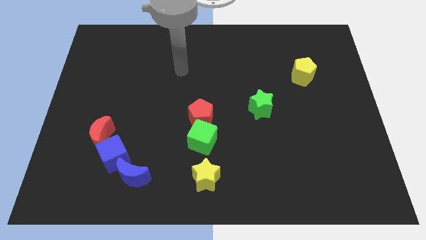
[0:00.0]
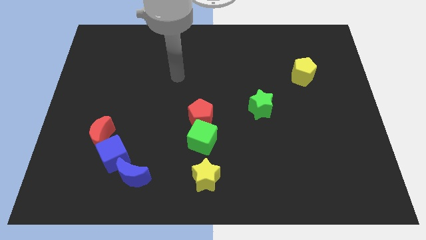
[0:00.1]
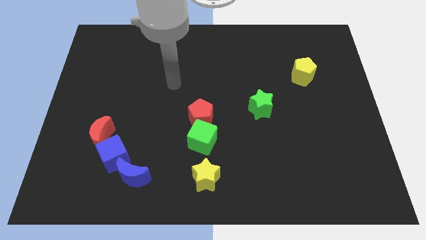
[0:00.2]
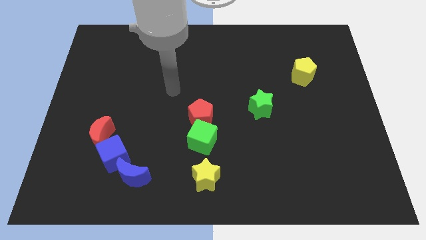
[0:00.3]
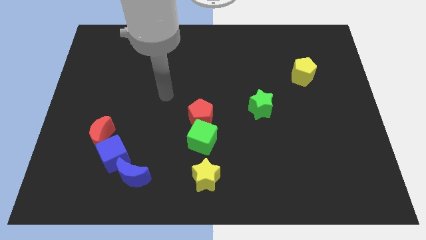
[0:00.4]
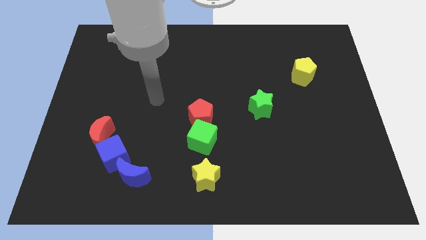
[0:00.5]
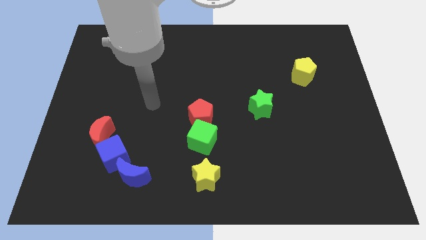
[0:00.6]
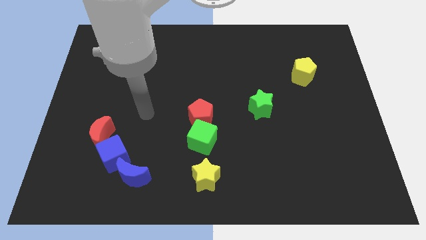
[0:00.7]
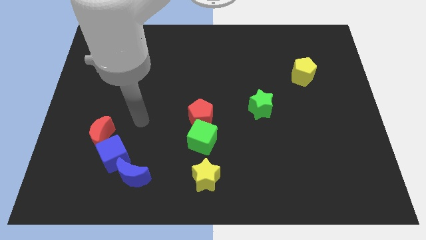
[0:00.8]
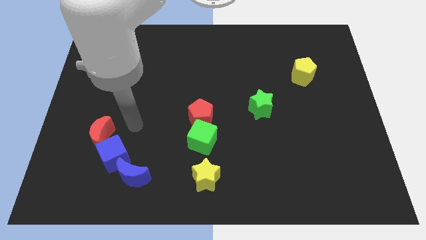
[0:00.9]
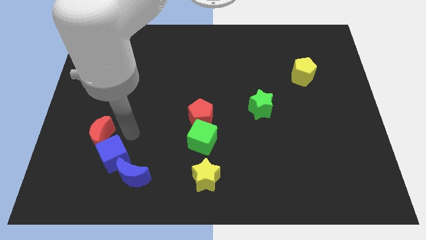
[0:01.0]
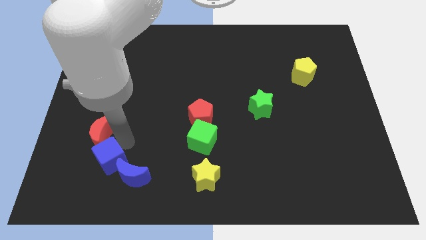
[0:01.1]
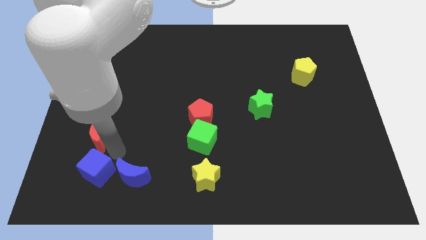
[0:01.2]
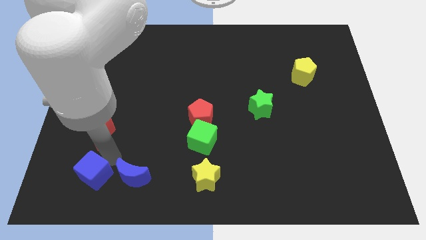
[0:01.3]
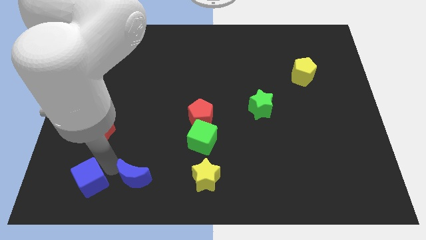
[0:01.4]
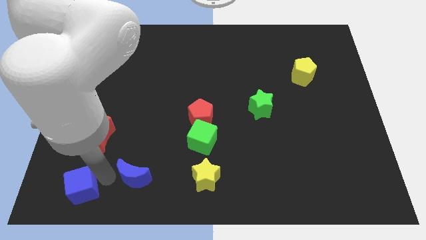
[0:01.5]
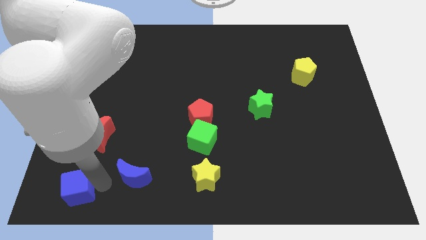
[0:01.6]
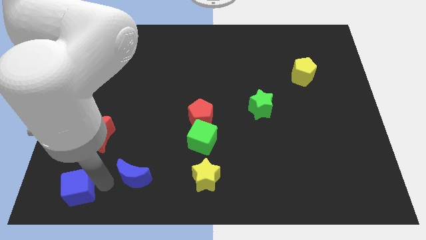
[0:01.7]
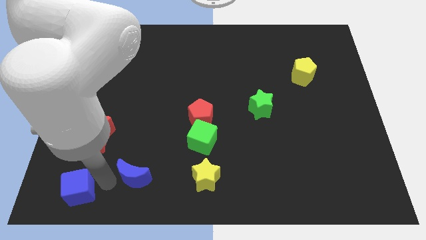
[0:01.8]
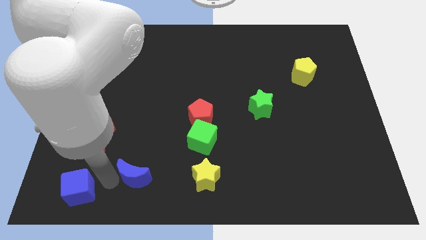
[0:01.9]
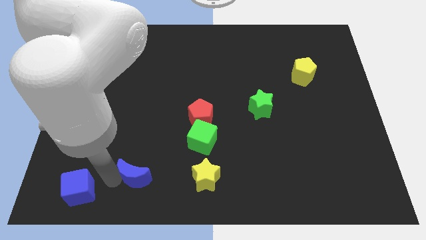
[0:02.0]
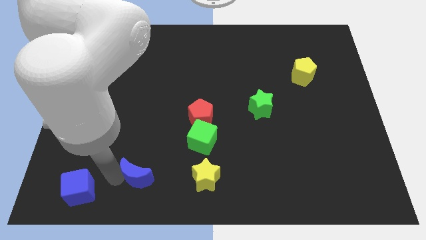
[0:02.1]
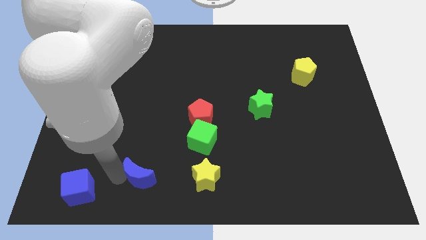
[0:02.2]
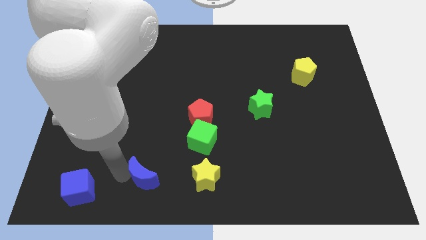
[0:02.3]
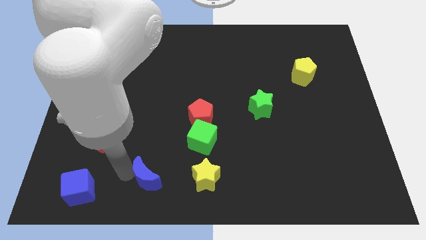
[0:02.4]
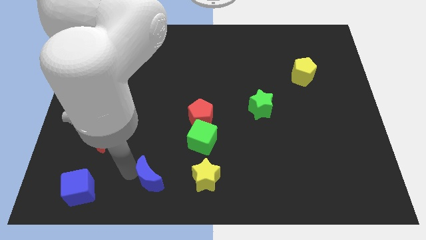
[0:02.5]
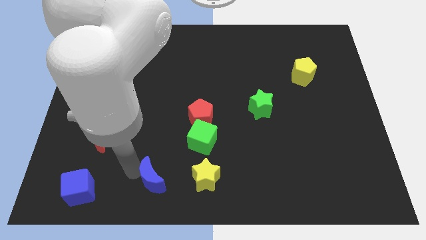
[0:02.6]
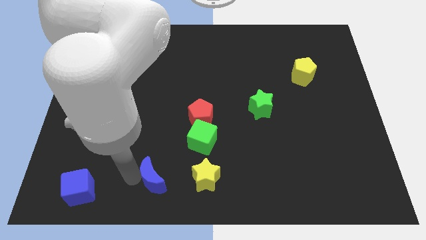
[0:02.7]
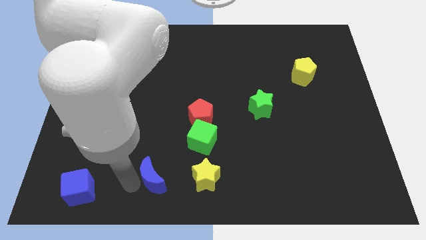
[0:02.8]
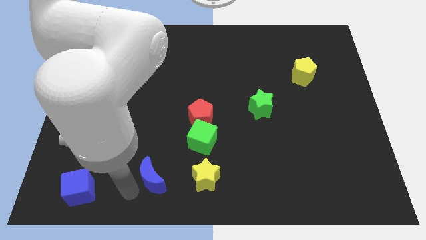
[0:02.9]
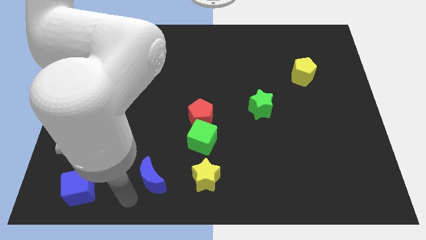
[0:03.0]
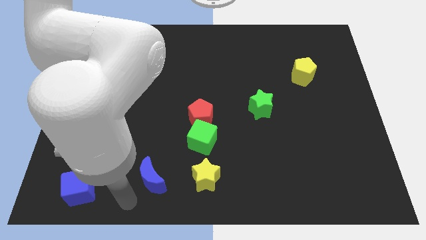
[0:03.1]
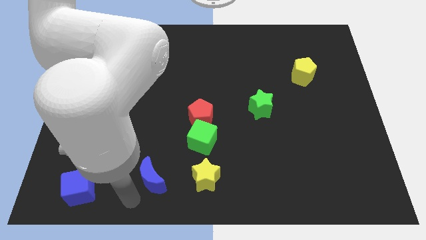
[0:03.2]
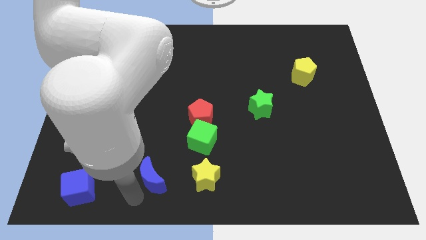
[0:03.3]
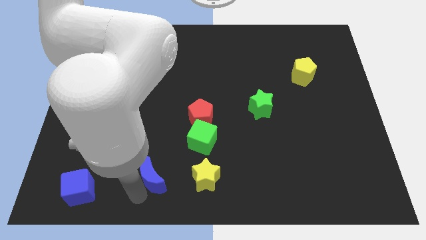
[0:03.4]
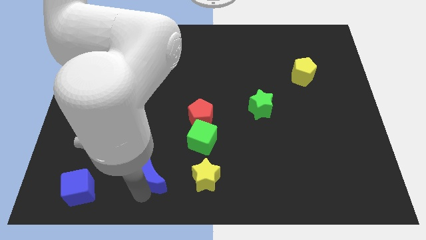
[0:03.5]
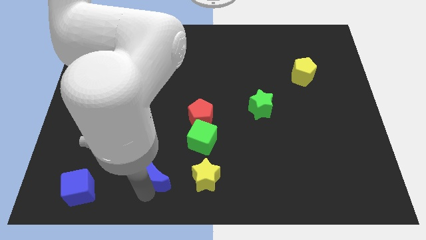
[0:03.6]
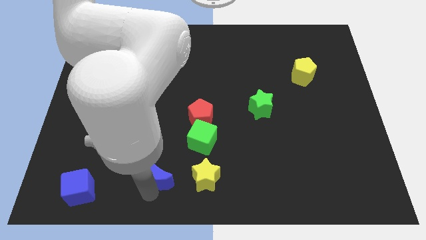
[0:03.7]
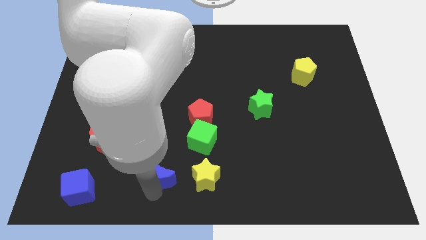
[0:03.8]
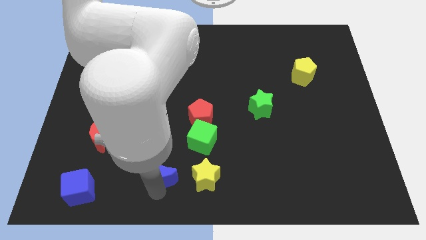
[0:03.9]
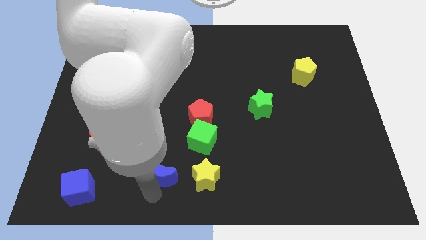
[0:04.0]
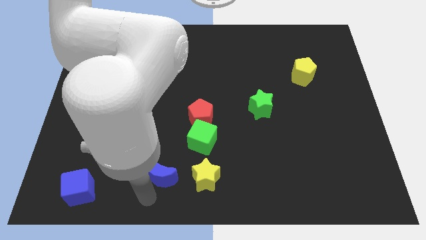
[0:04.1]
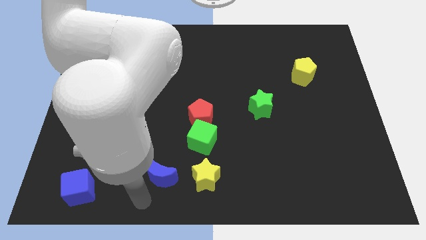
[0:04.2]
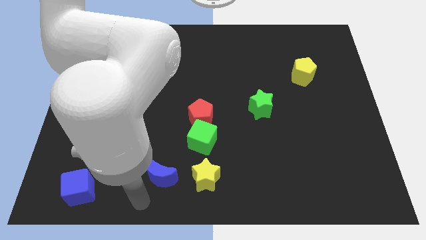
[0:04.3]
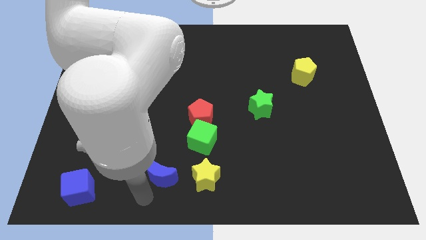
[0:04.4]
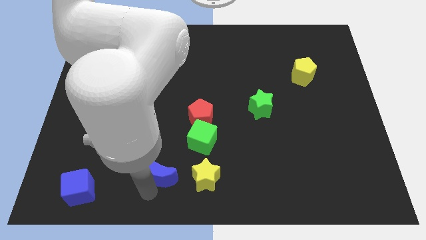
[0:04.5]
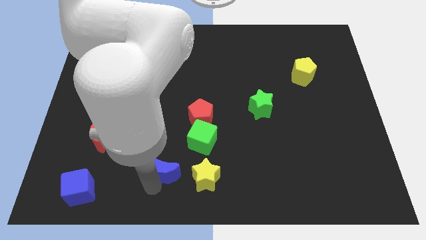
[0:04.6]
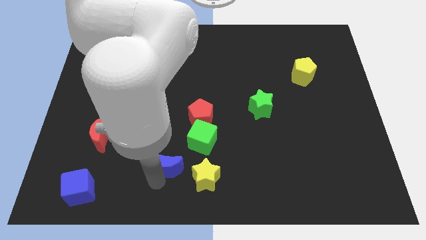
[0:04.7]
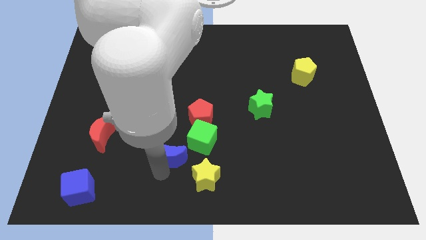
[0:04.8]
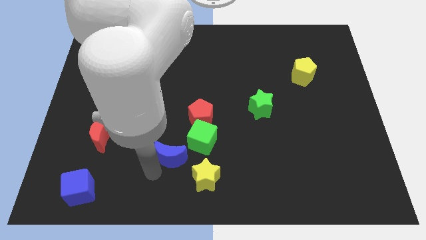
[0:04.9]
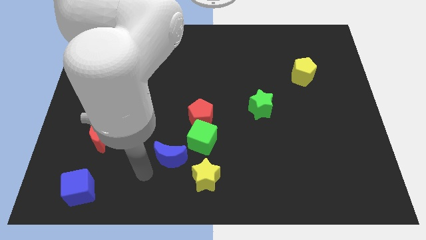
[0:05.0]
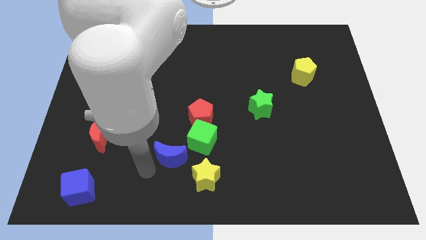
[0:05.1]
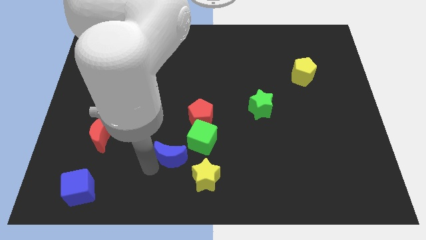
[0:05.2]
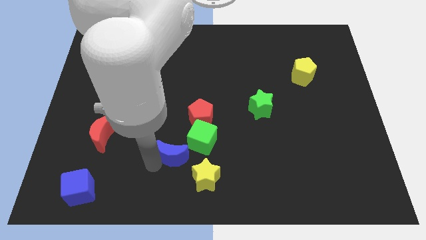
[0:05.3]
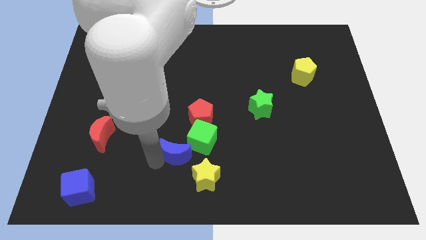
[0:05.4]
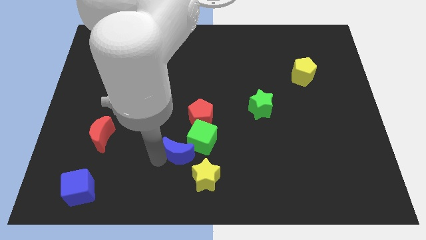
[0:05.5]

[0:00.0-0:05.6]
slide the blue moon towards the green cube

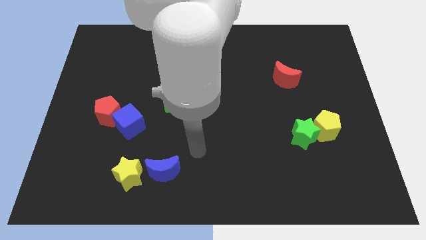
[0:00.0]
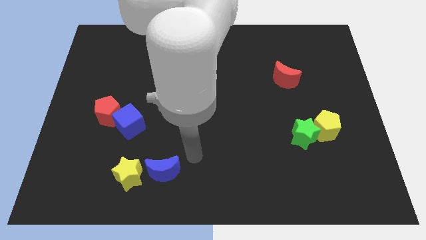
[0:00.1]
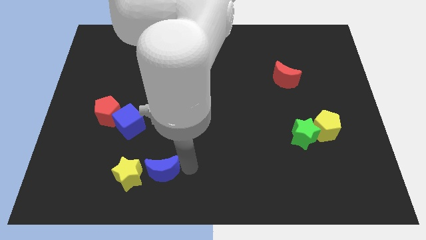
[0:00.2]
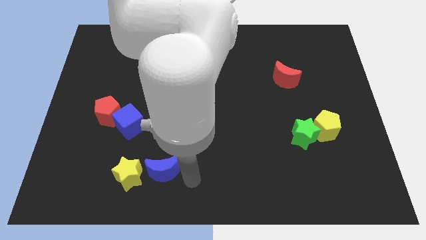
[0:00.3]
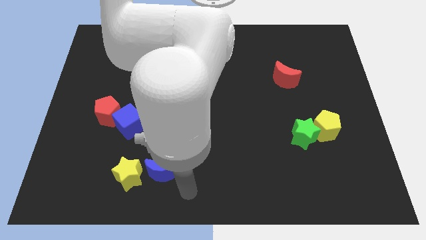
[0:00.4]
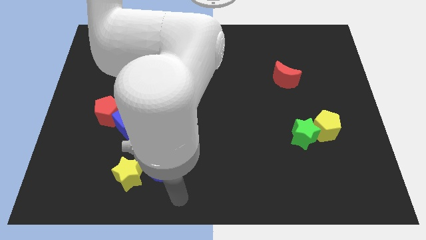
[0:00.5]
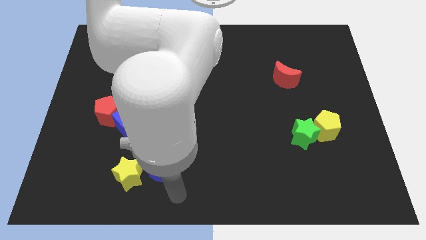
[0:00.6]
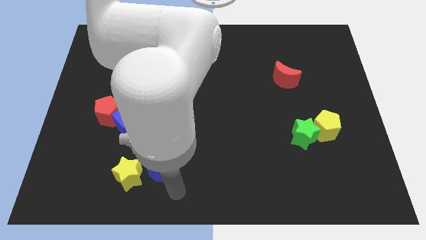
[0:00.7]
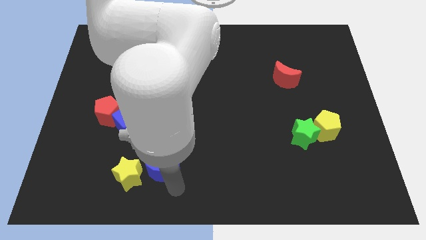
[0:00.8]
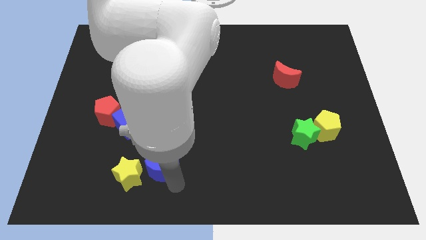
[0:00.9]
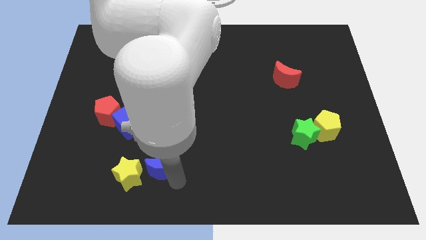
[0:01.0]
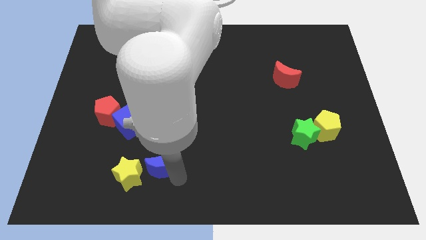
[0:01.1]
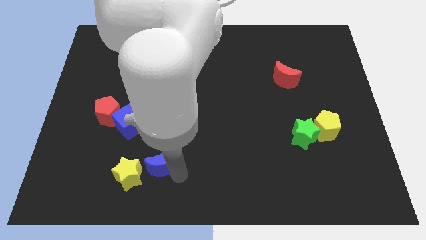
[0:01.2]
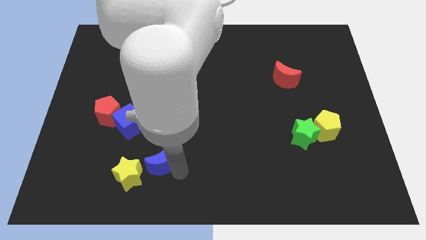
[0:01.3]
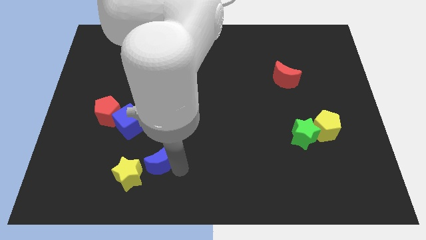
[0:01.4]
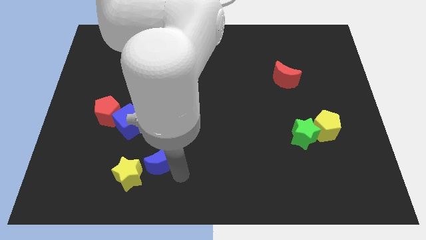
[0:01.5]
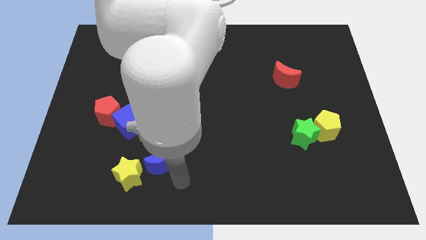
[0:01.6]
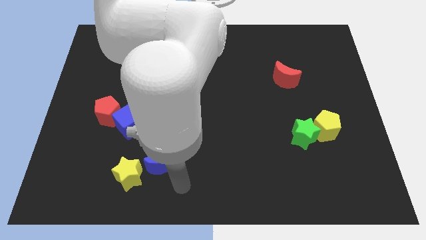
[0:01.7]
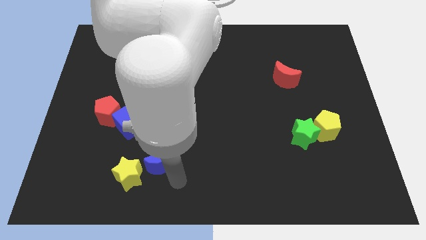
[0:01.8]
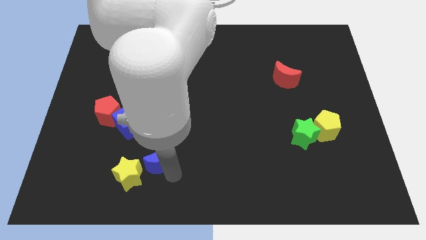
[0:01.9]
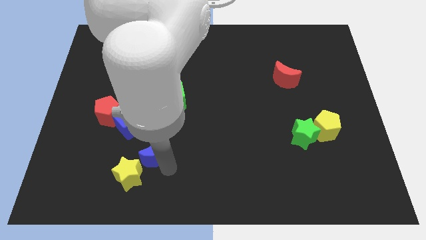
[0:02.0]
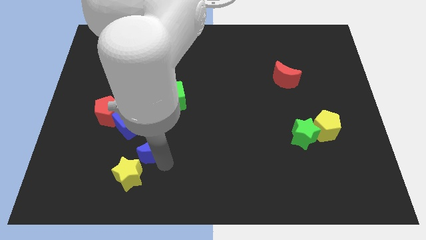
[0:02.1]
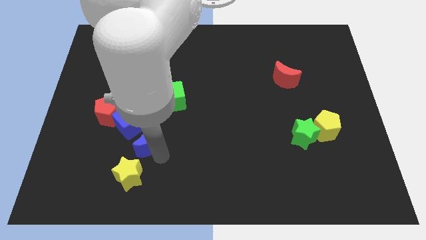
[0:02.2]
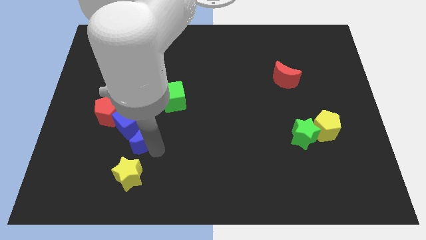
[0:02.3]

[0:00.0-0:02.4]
put the blue moon to the blue cube
